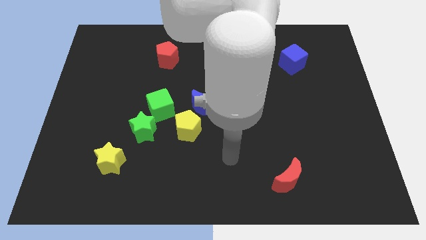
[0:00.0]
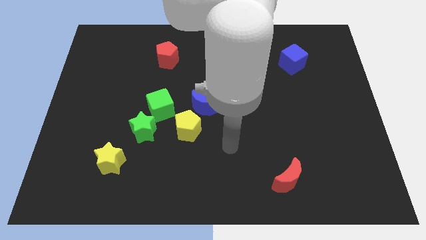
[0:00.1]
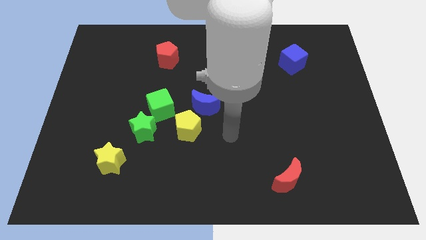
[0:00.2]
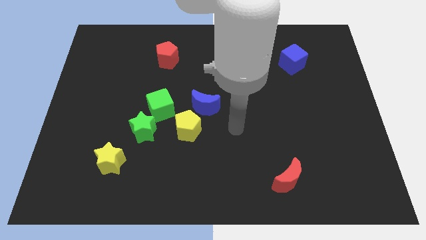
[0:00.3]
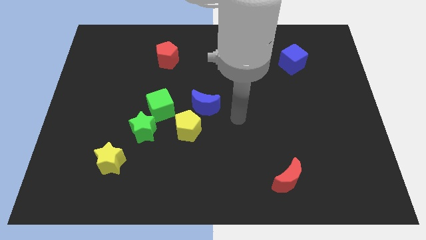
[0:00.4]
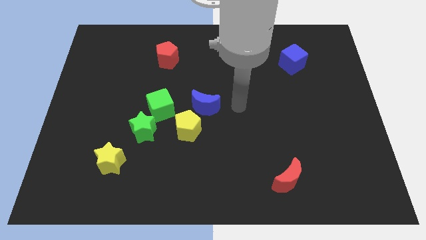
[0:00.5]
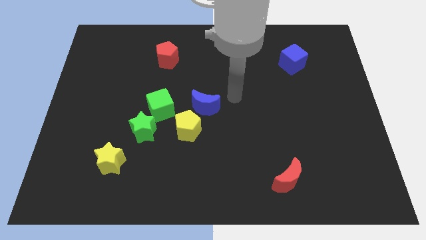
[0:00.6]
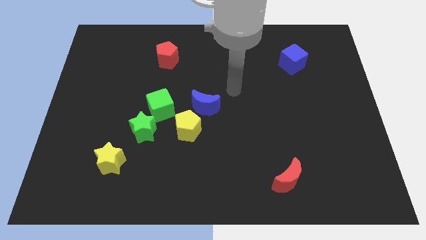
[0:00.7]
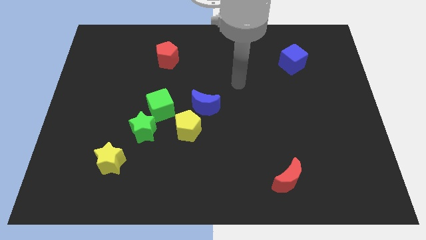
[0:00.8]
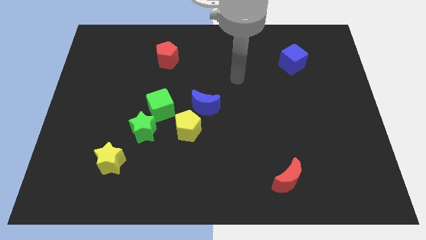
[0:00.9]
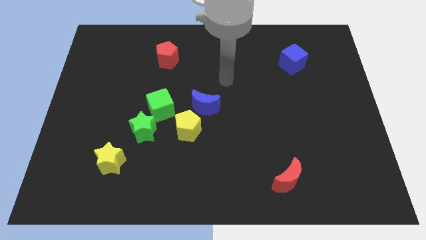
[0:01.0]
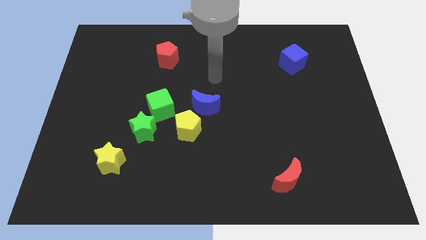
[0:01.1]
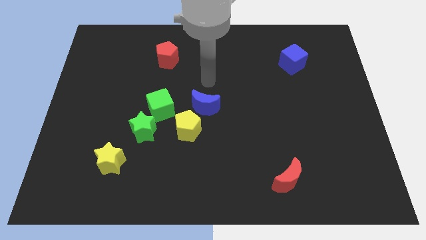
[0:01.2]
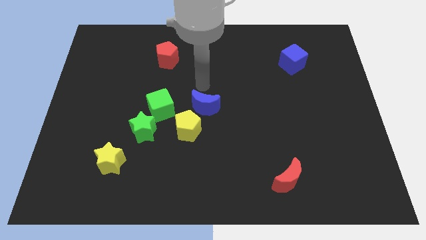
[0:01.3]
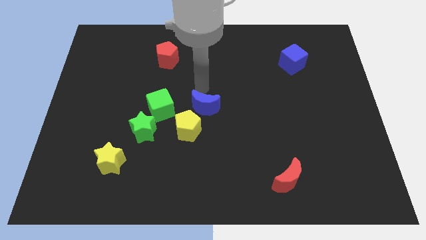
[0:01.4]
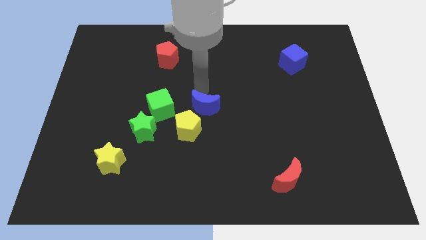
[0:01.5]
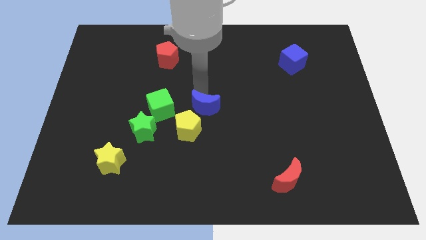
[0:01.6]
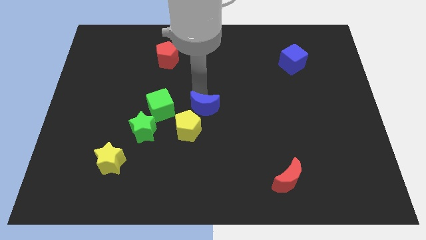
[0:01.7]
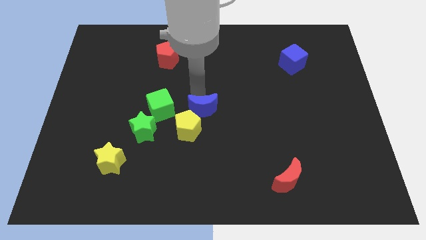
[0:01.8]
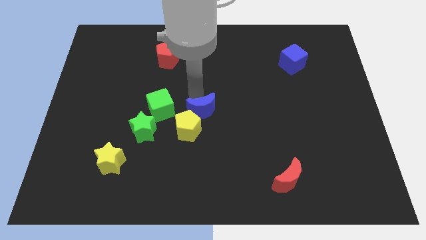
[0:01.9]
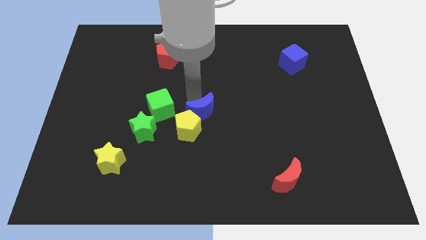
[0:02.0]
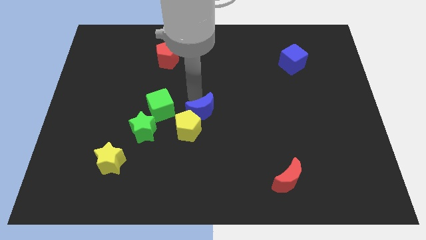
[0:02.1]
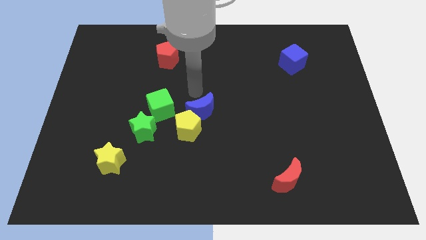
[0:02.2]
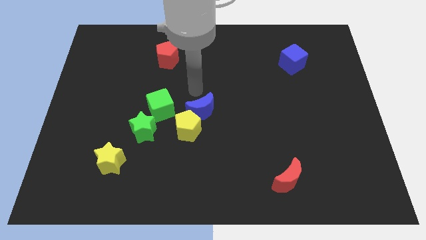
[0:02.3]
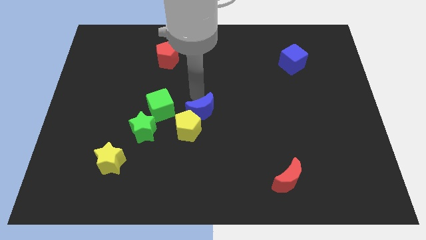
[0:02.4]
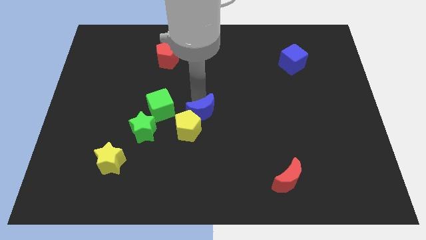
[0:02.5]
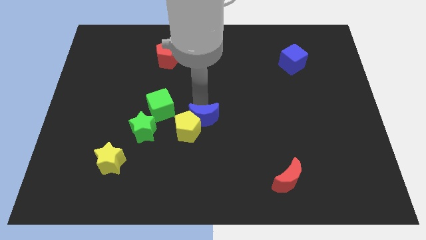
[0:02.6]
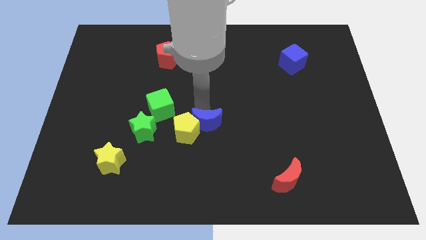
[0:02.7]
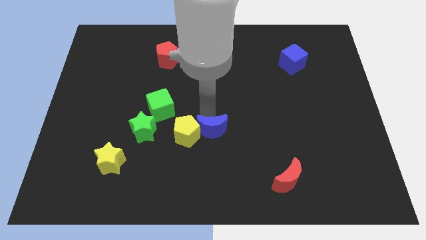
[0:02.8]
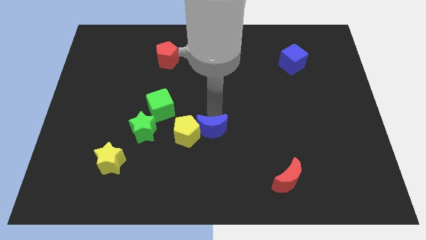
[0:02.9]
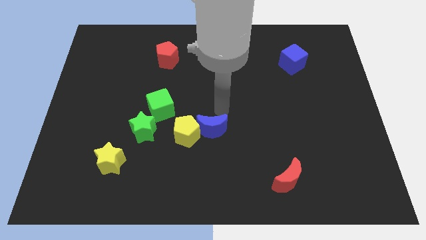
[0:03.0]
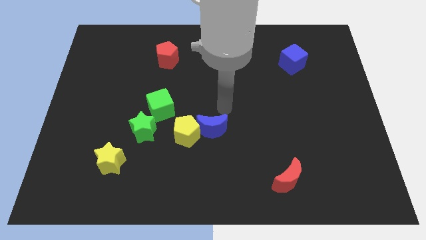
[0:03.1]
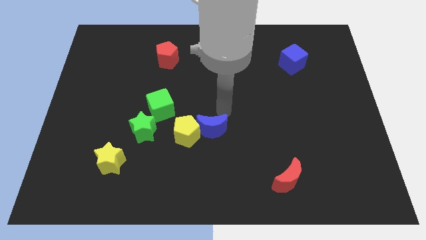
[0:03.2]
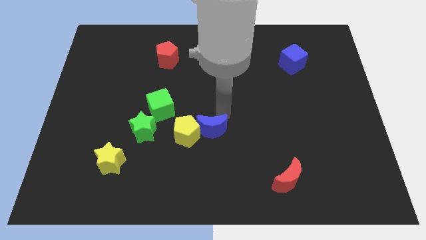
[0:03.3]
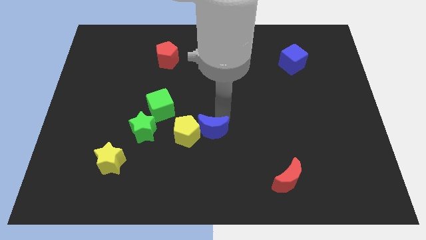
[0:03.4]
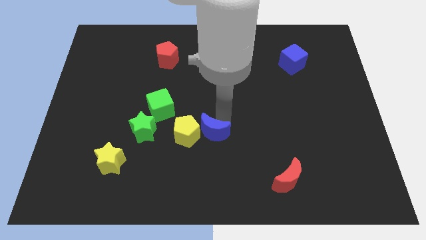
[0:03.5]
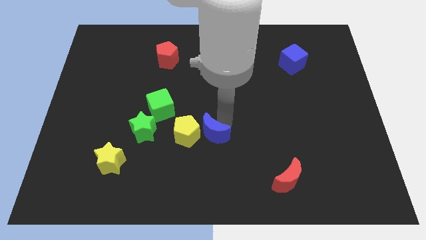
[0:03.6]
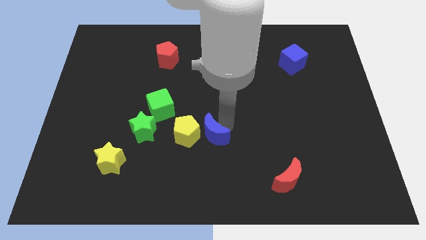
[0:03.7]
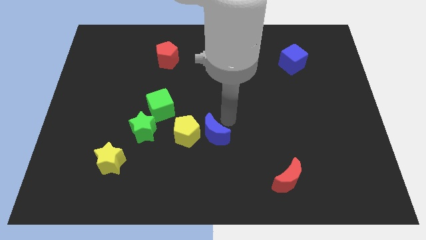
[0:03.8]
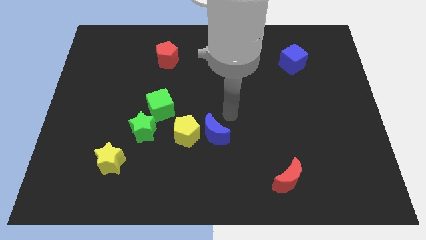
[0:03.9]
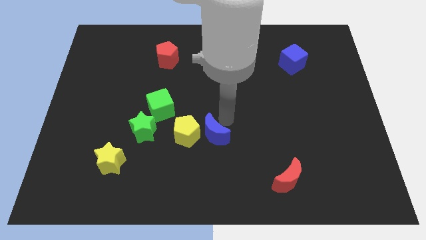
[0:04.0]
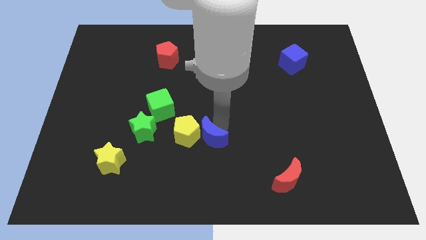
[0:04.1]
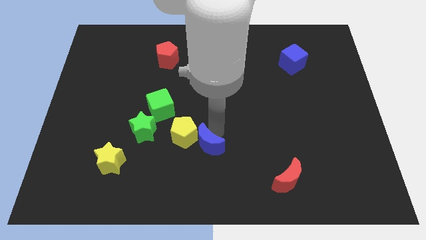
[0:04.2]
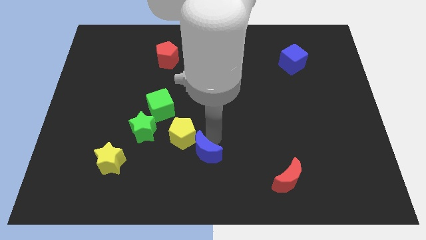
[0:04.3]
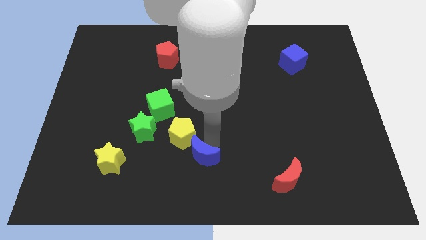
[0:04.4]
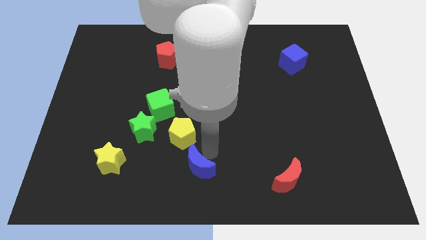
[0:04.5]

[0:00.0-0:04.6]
move the blue moon a bit downwards and to the left

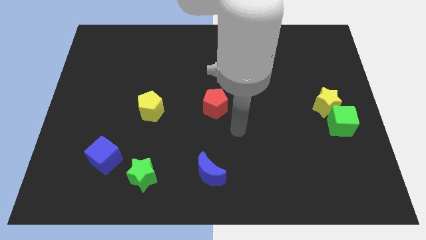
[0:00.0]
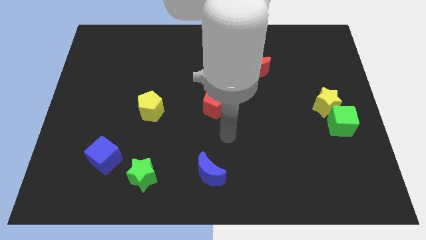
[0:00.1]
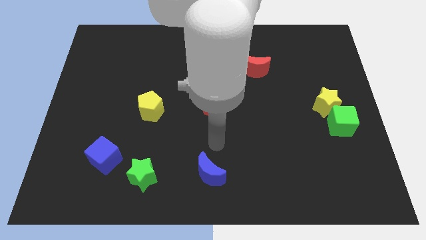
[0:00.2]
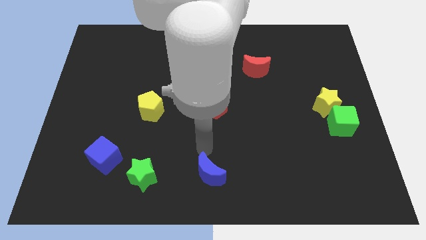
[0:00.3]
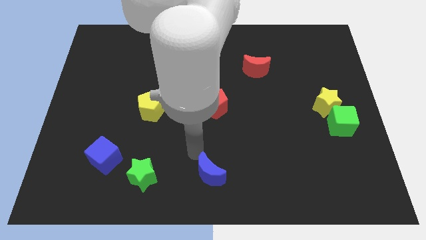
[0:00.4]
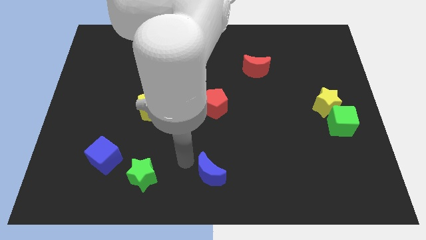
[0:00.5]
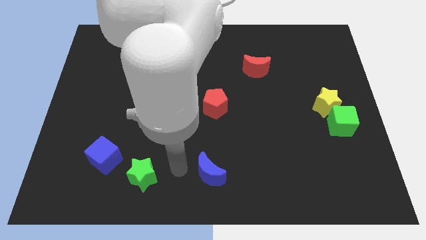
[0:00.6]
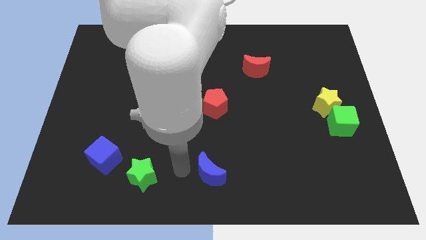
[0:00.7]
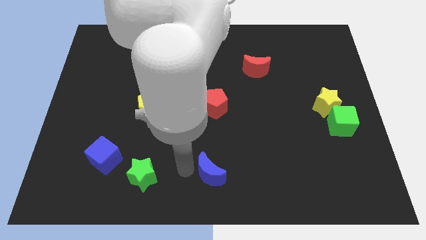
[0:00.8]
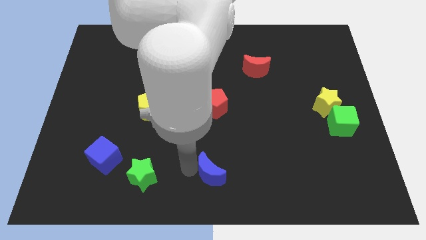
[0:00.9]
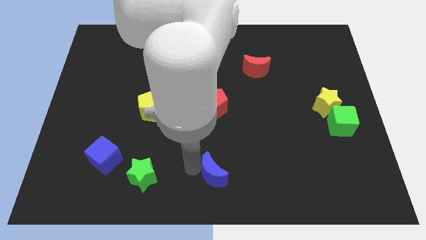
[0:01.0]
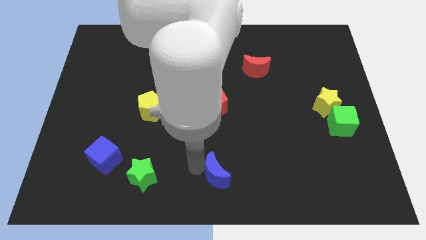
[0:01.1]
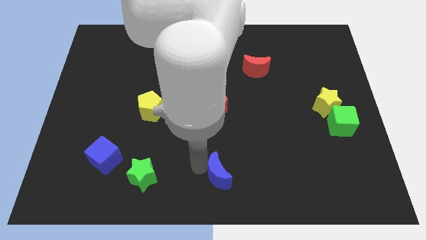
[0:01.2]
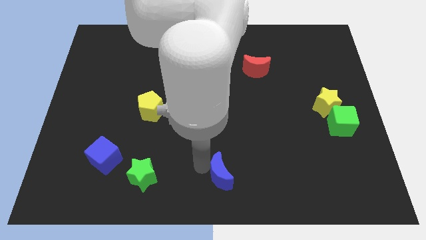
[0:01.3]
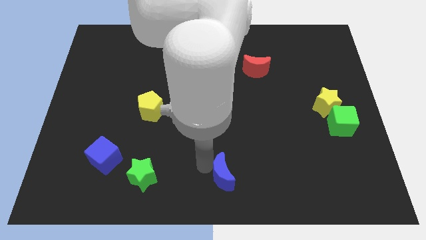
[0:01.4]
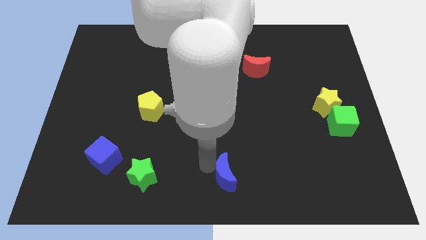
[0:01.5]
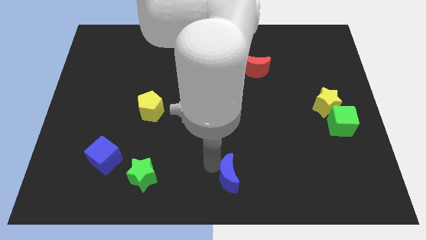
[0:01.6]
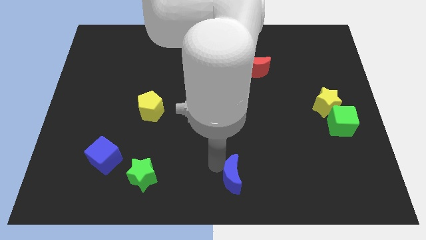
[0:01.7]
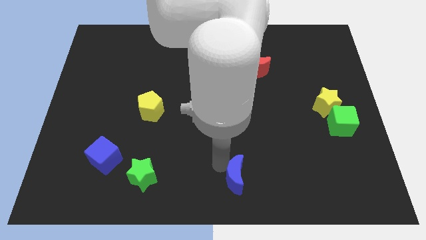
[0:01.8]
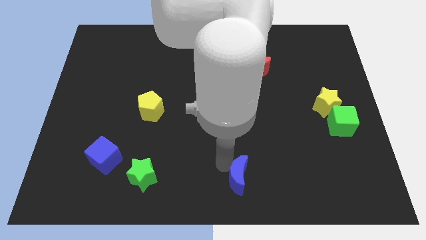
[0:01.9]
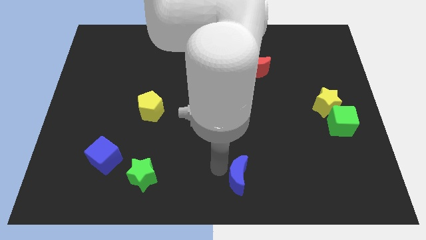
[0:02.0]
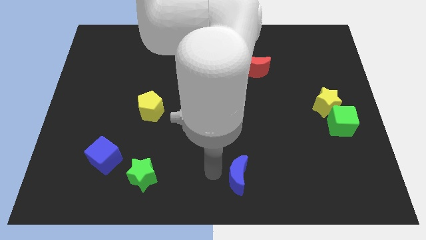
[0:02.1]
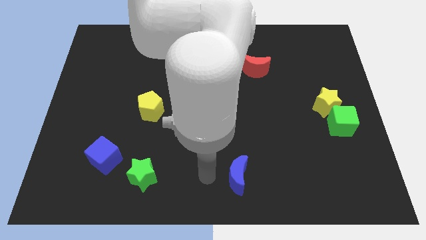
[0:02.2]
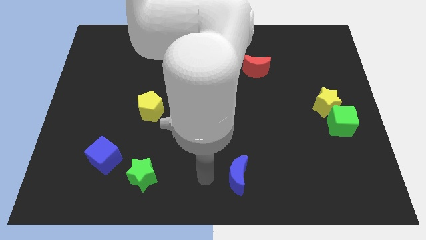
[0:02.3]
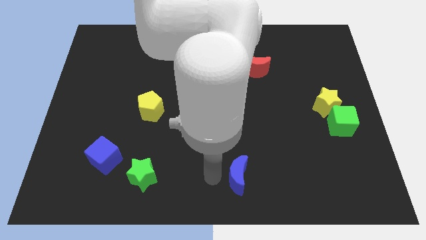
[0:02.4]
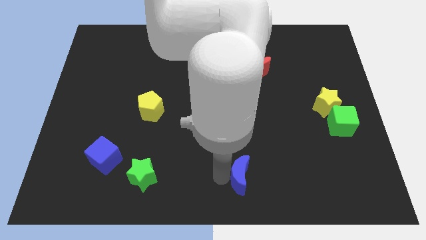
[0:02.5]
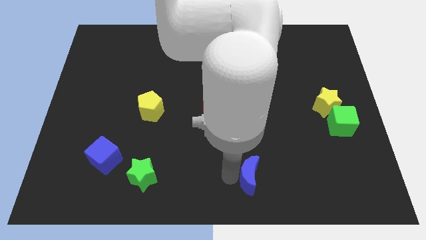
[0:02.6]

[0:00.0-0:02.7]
slightly move the blue moon right

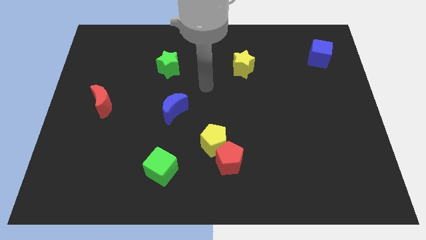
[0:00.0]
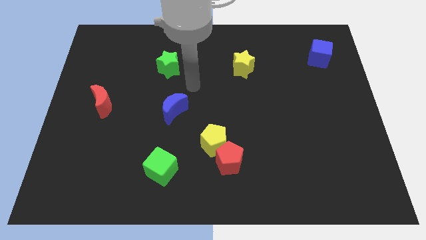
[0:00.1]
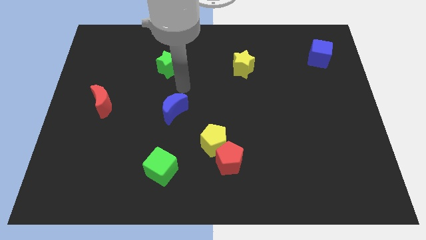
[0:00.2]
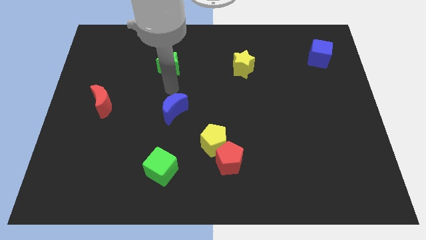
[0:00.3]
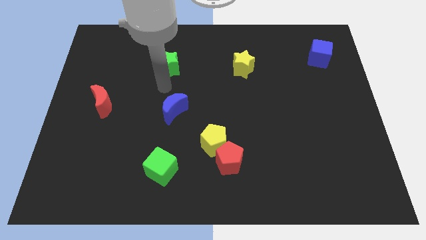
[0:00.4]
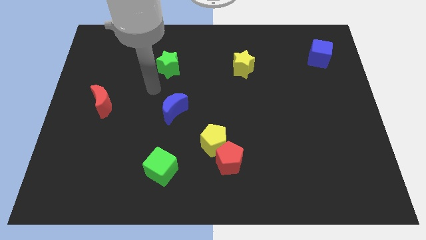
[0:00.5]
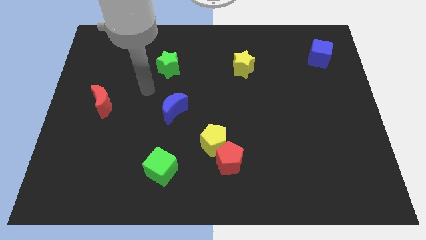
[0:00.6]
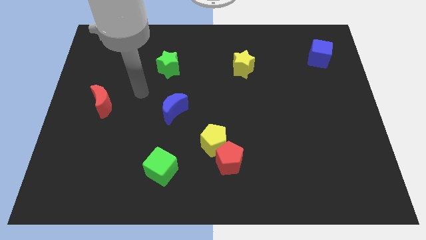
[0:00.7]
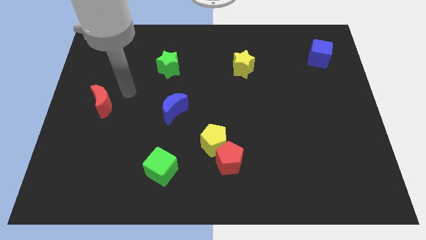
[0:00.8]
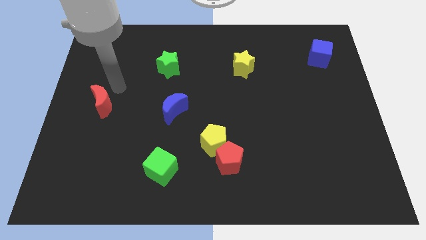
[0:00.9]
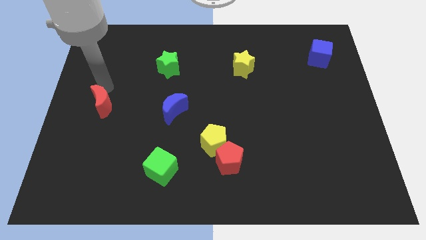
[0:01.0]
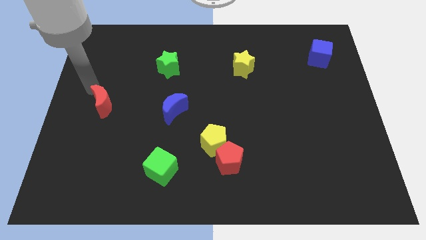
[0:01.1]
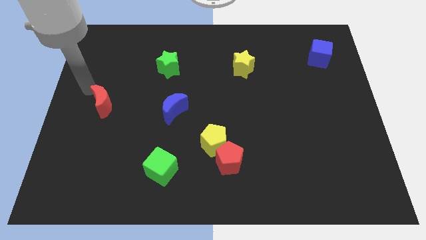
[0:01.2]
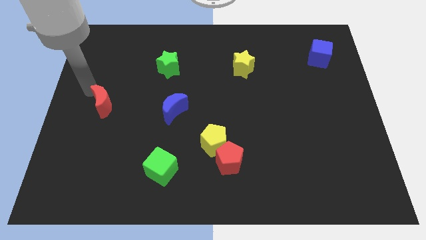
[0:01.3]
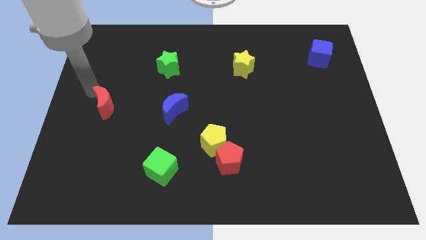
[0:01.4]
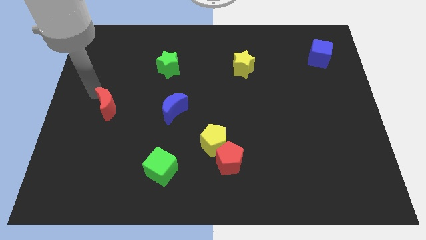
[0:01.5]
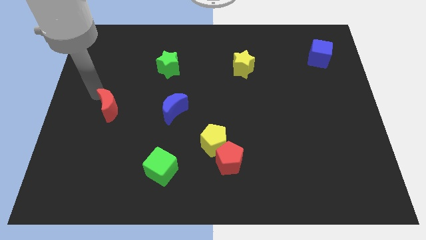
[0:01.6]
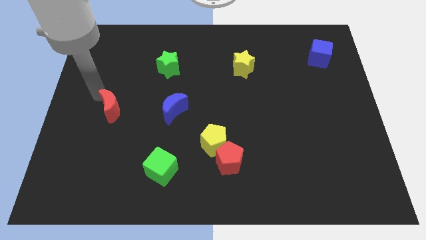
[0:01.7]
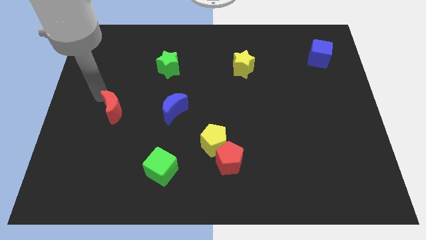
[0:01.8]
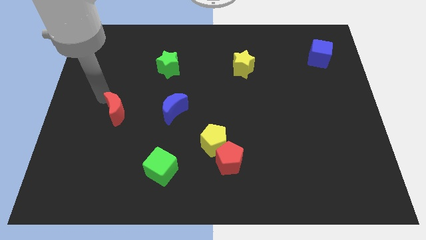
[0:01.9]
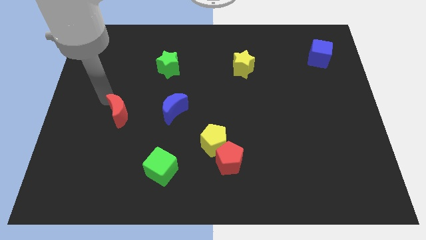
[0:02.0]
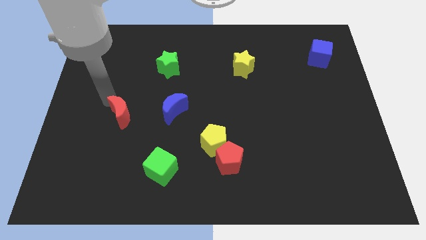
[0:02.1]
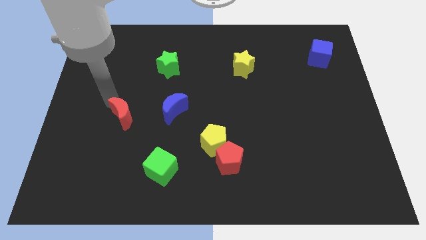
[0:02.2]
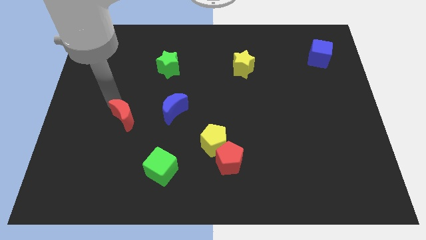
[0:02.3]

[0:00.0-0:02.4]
move the red moon somewhat downwards and right
